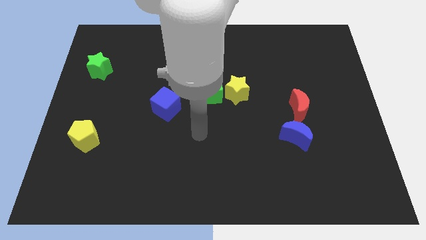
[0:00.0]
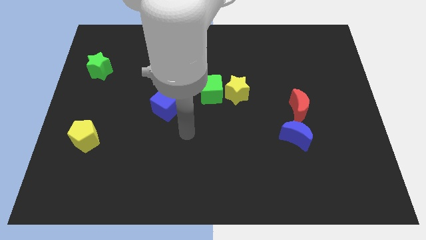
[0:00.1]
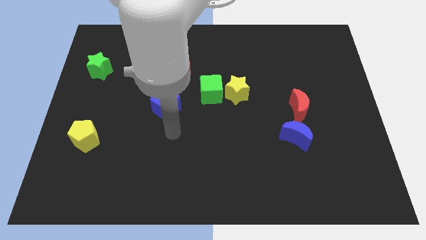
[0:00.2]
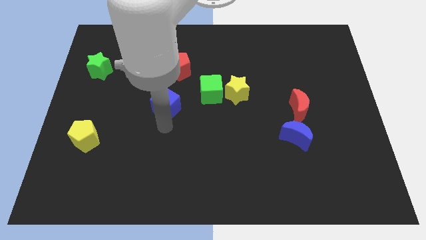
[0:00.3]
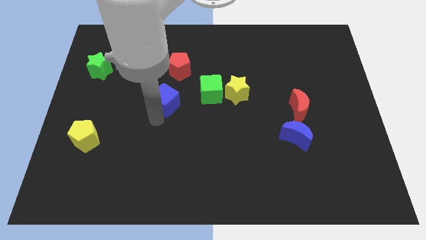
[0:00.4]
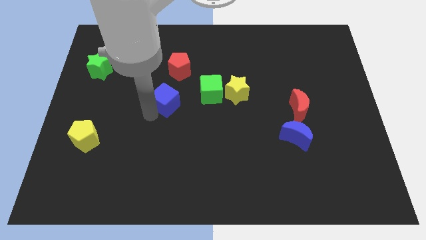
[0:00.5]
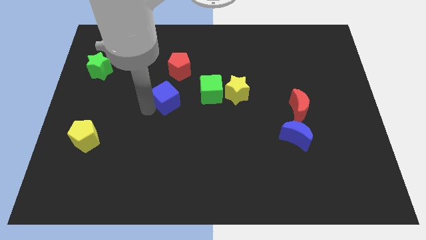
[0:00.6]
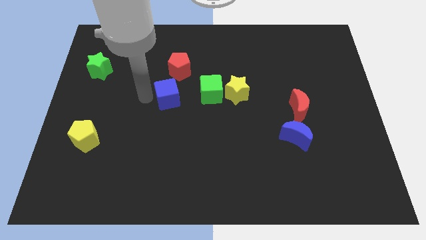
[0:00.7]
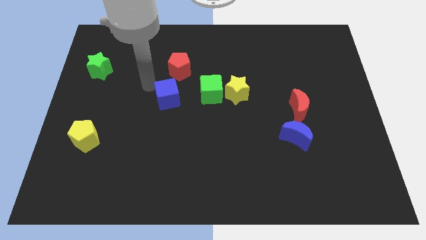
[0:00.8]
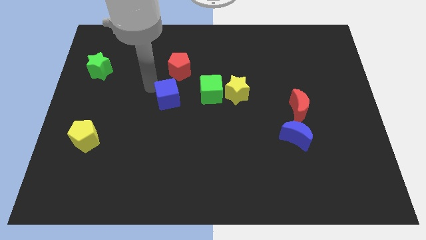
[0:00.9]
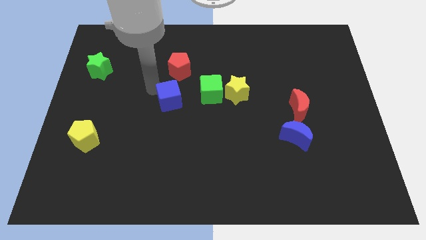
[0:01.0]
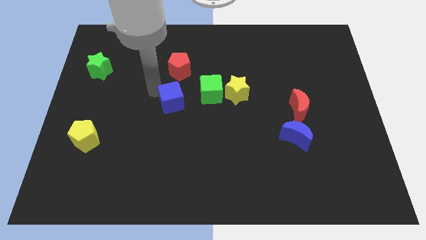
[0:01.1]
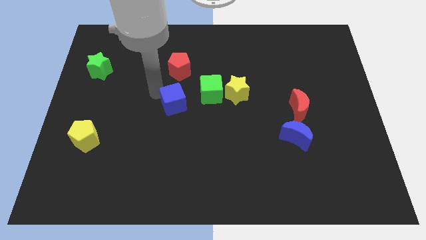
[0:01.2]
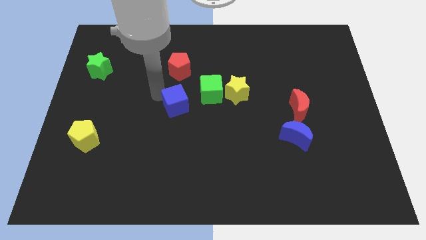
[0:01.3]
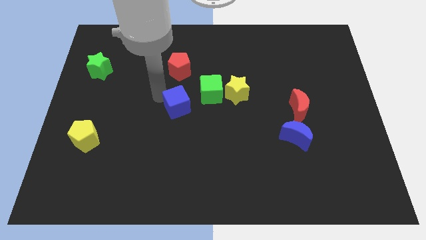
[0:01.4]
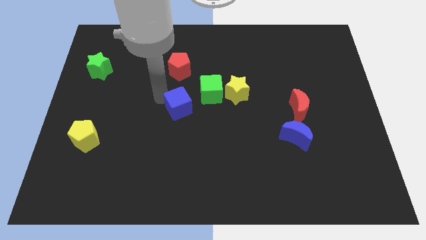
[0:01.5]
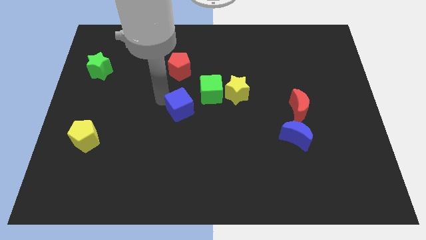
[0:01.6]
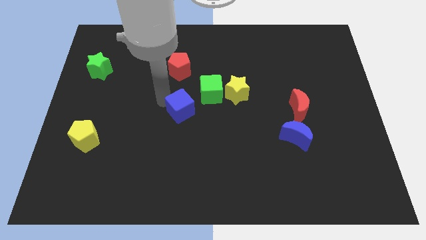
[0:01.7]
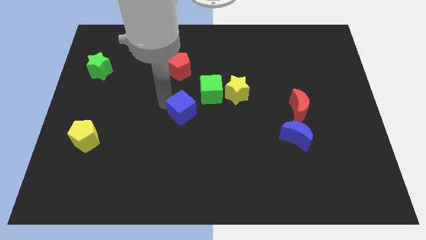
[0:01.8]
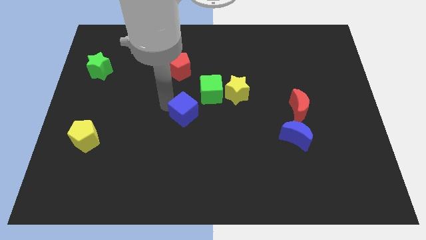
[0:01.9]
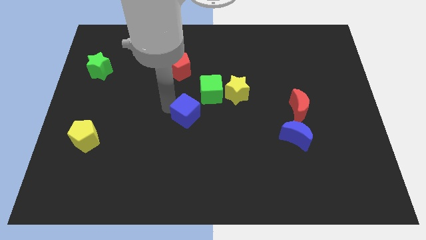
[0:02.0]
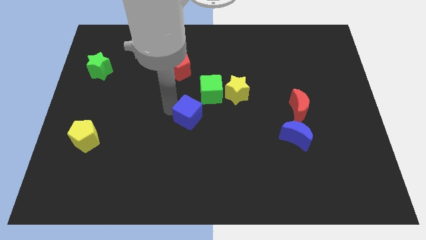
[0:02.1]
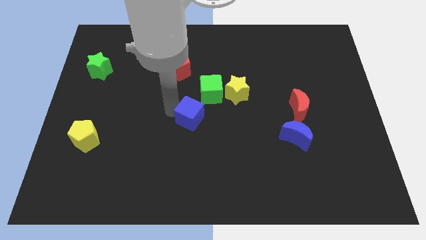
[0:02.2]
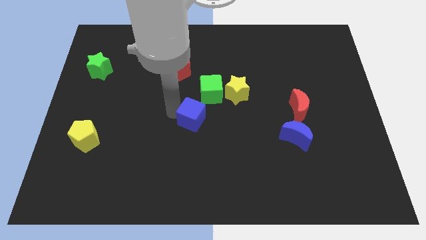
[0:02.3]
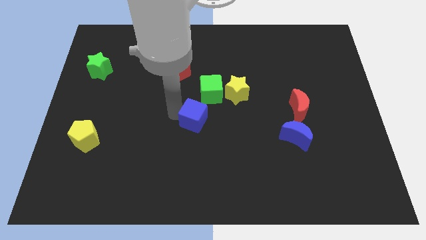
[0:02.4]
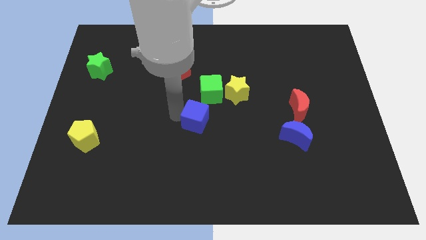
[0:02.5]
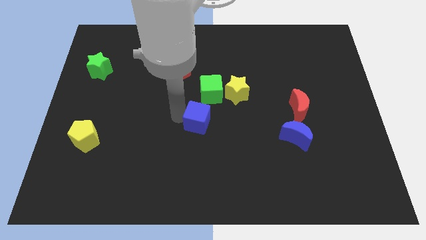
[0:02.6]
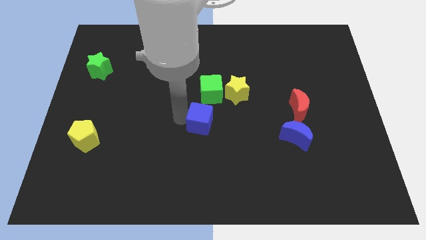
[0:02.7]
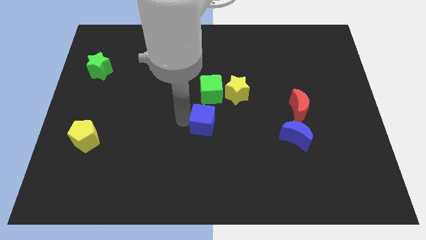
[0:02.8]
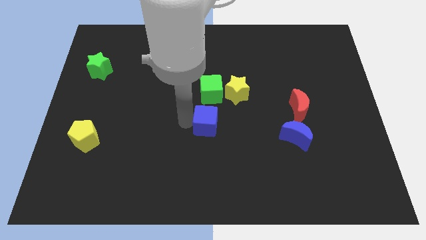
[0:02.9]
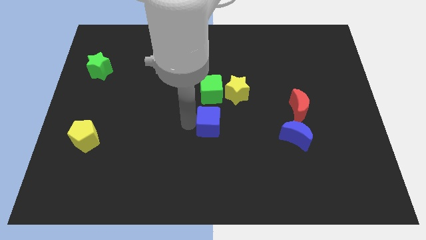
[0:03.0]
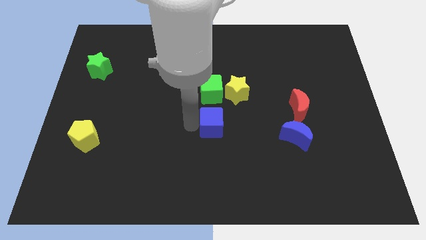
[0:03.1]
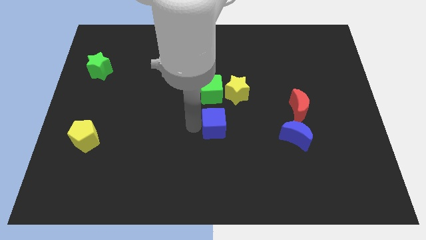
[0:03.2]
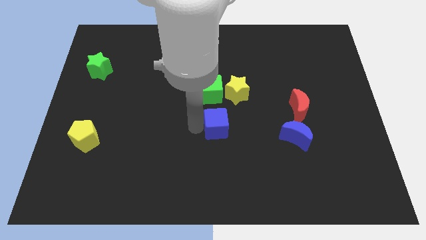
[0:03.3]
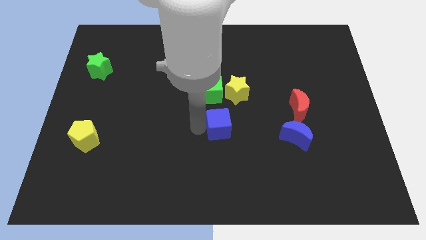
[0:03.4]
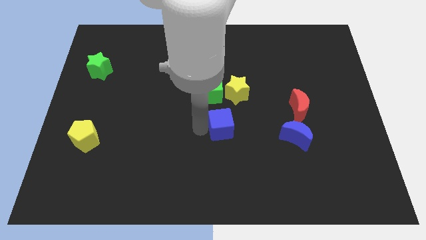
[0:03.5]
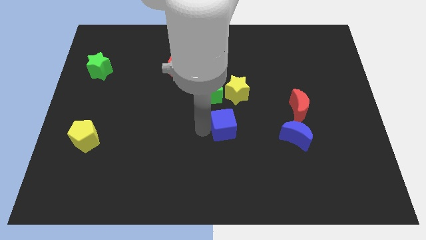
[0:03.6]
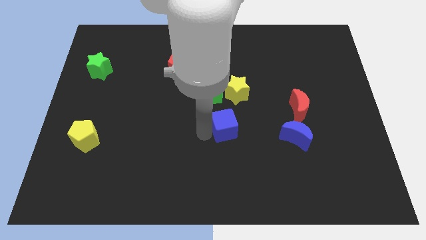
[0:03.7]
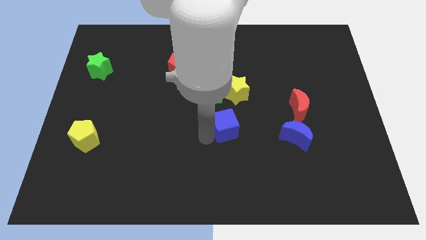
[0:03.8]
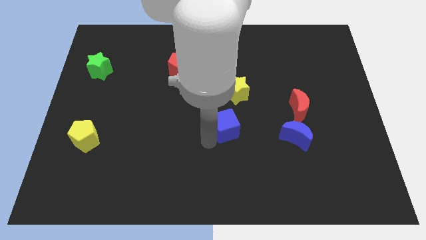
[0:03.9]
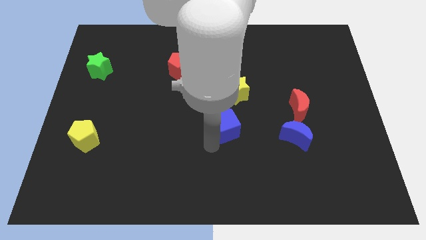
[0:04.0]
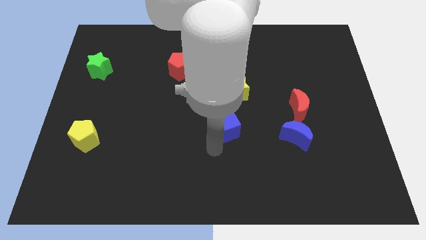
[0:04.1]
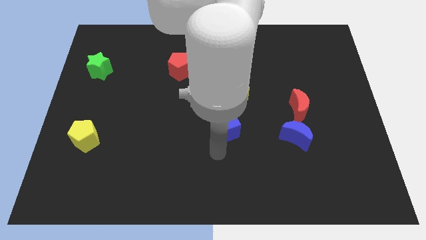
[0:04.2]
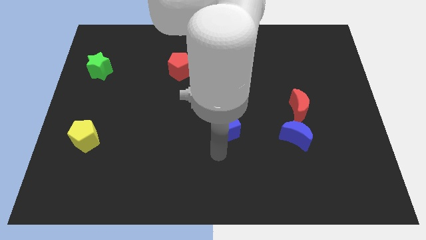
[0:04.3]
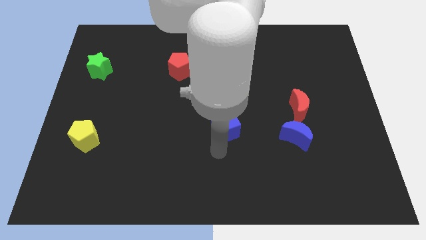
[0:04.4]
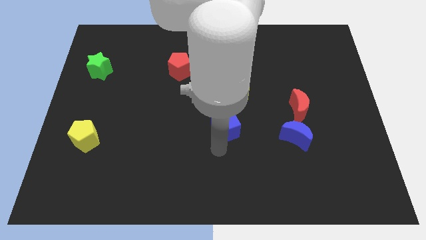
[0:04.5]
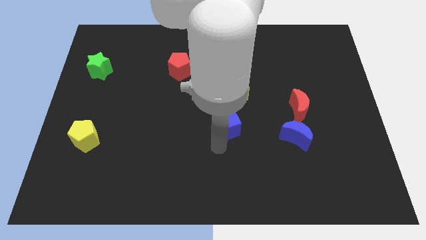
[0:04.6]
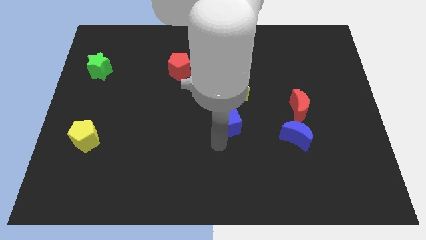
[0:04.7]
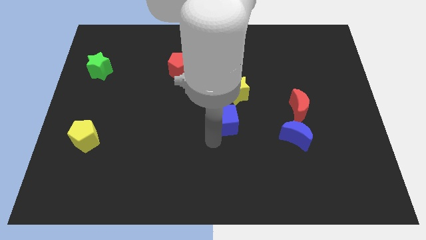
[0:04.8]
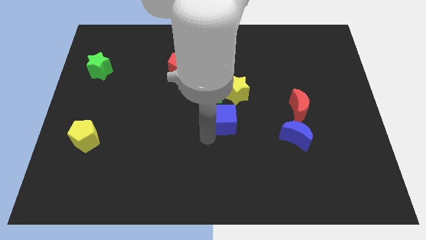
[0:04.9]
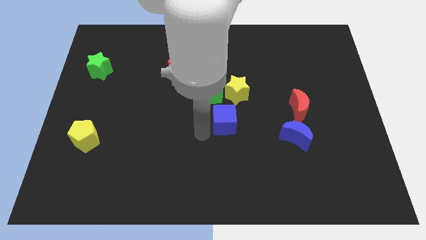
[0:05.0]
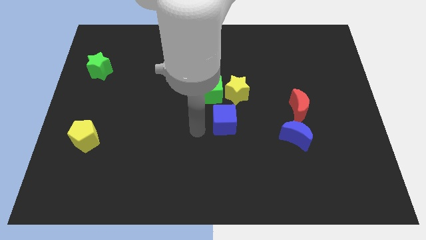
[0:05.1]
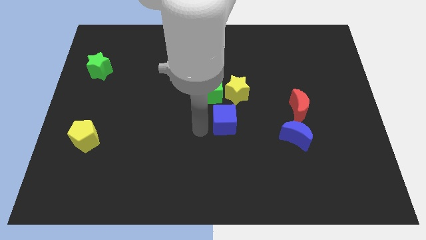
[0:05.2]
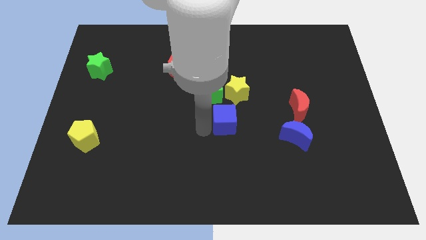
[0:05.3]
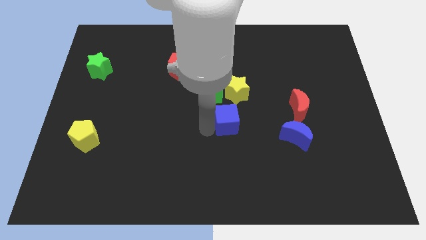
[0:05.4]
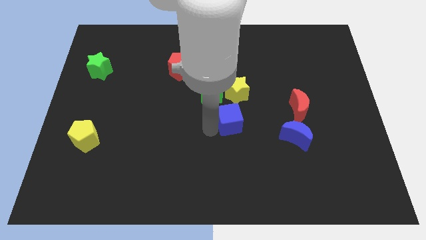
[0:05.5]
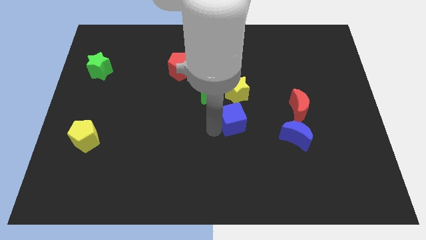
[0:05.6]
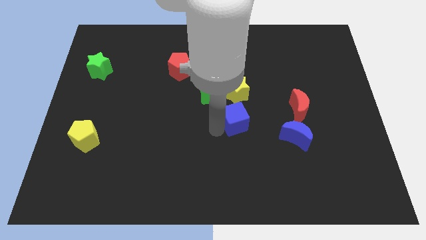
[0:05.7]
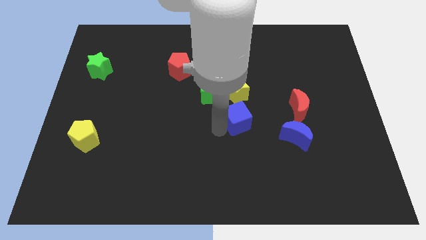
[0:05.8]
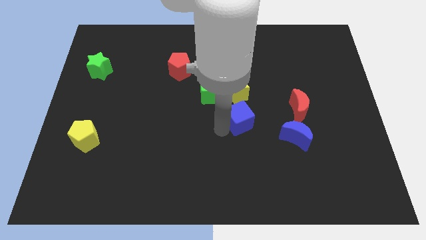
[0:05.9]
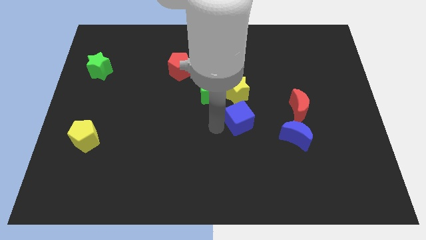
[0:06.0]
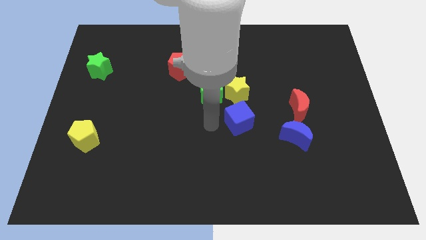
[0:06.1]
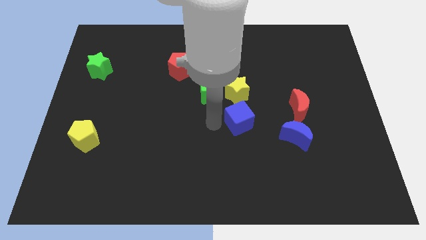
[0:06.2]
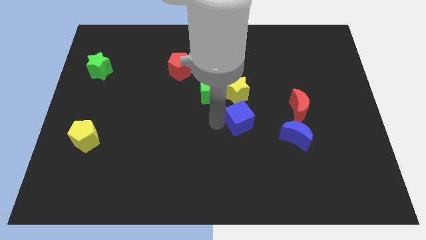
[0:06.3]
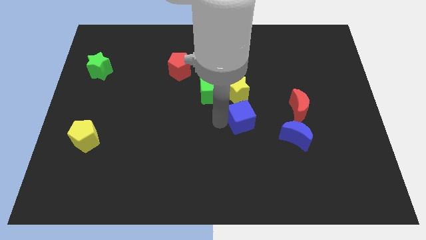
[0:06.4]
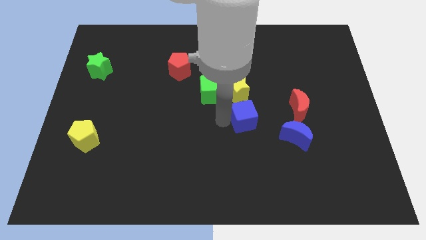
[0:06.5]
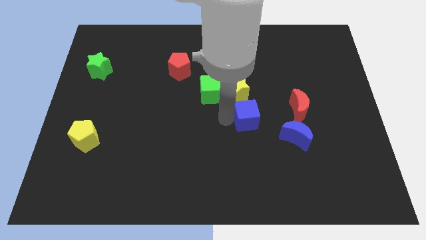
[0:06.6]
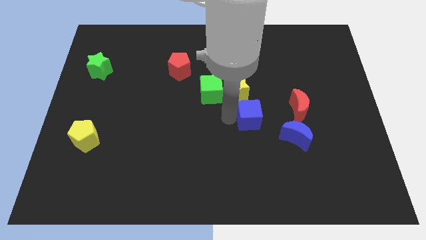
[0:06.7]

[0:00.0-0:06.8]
put the blue cube to the top left of the blue moon

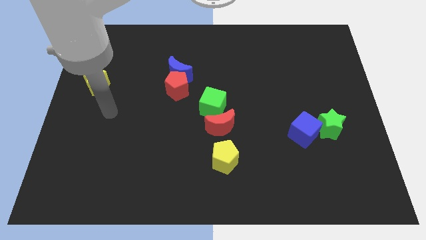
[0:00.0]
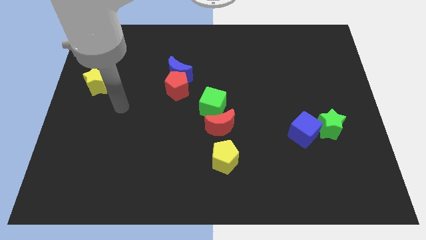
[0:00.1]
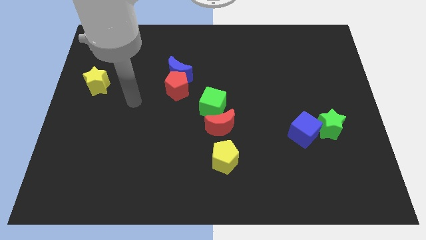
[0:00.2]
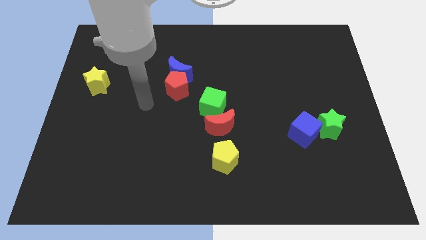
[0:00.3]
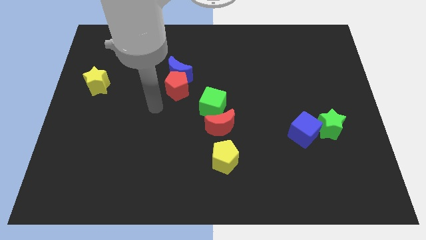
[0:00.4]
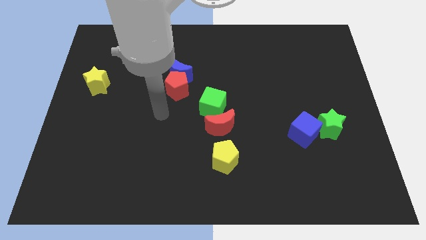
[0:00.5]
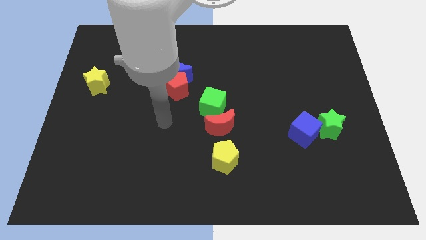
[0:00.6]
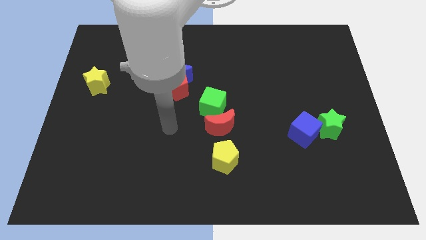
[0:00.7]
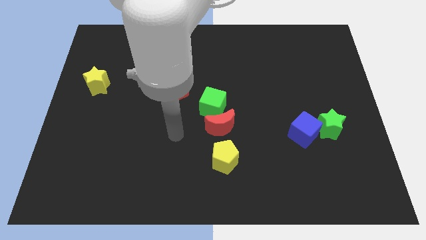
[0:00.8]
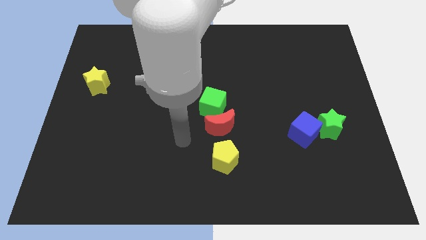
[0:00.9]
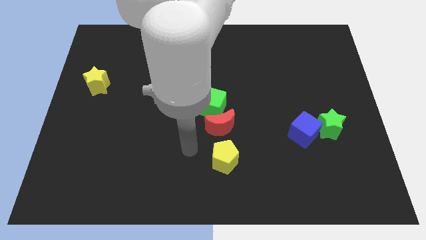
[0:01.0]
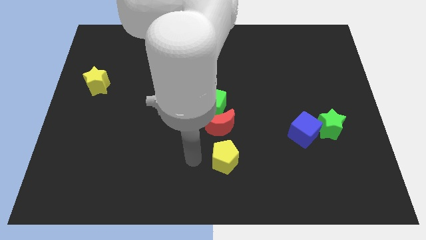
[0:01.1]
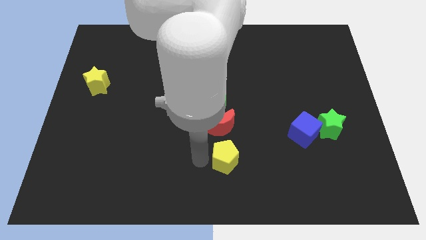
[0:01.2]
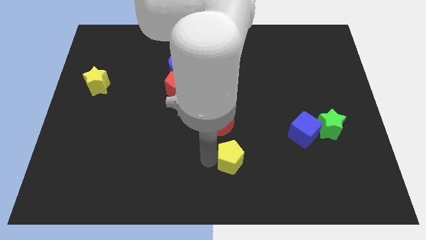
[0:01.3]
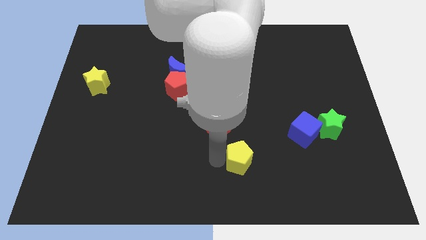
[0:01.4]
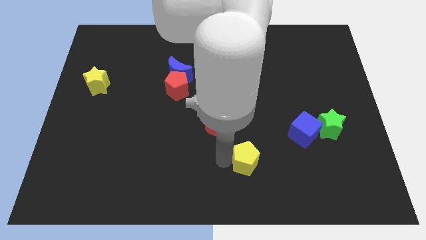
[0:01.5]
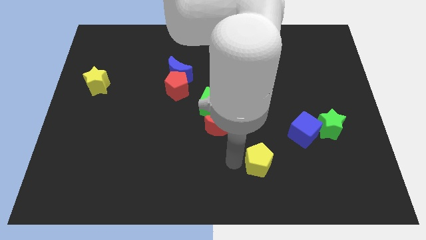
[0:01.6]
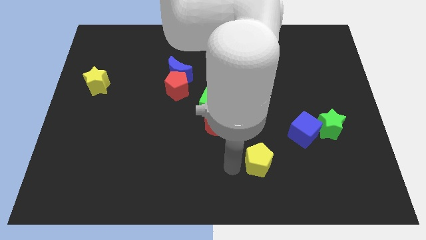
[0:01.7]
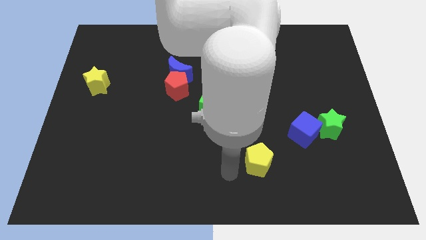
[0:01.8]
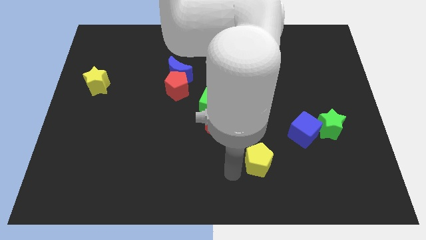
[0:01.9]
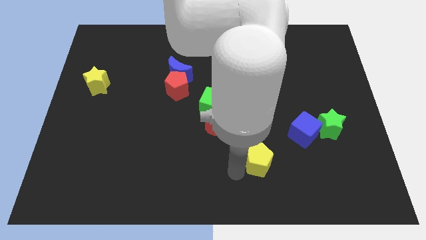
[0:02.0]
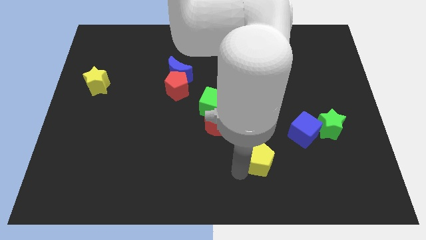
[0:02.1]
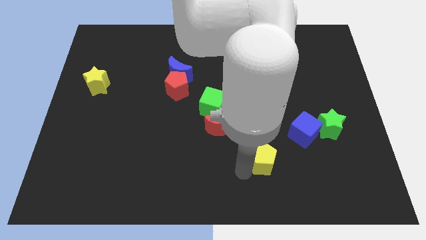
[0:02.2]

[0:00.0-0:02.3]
slide the yellow pentagon to the bottom left of the blue cube
